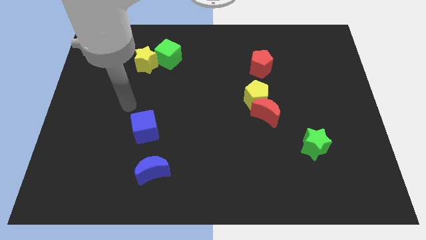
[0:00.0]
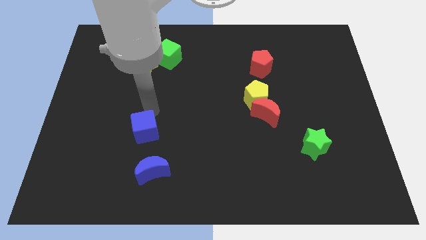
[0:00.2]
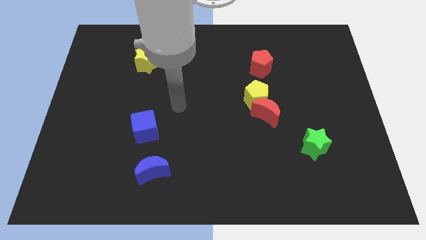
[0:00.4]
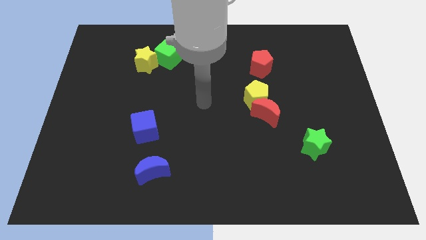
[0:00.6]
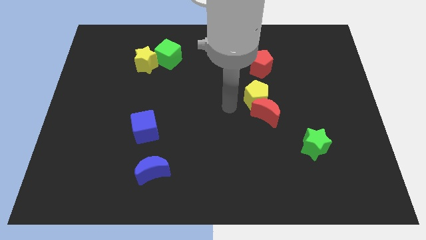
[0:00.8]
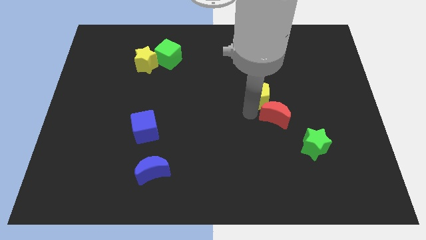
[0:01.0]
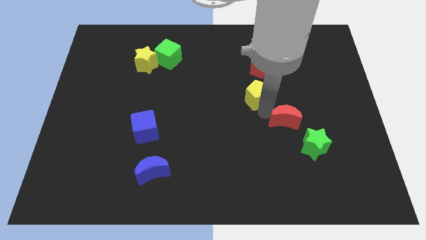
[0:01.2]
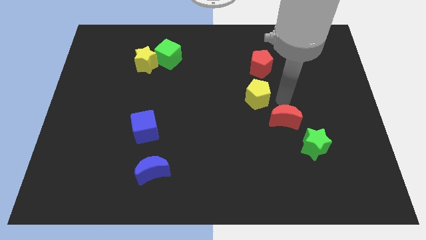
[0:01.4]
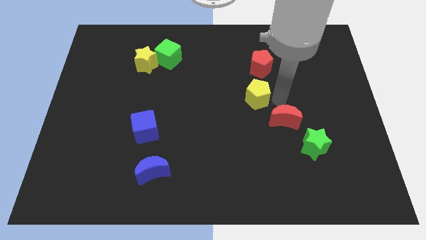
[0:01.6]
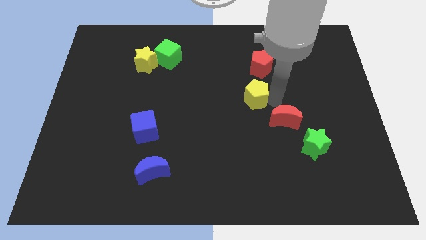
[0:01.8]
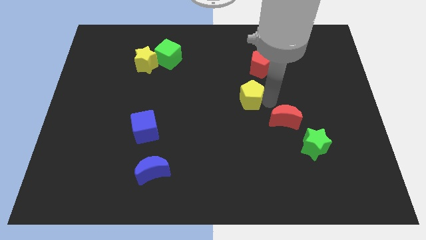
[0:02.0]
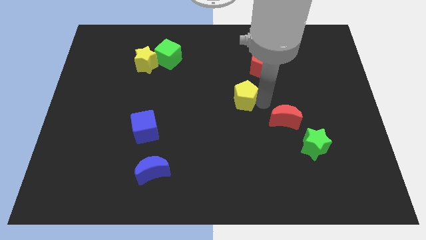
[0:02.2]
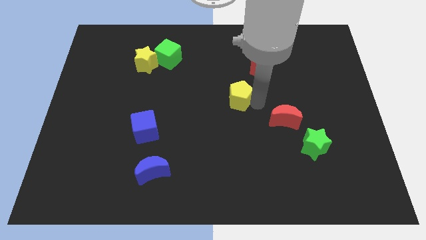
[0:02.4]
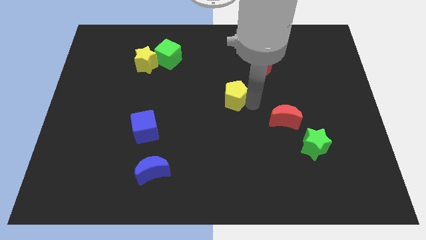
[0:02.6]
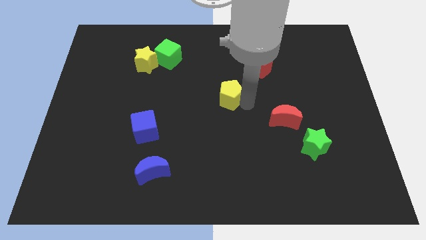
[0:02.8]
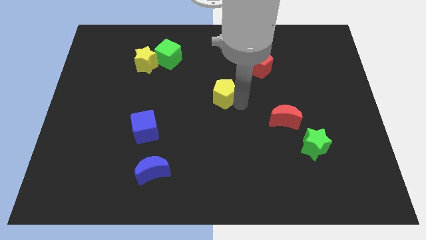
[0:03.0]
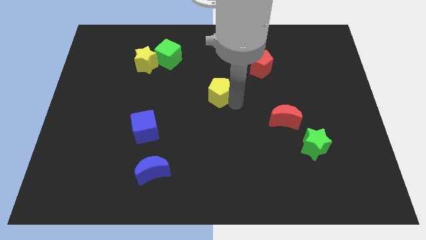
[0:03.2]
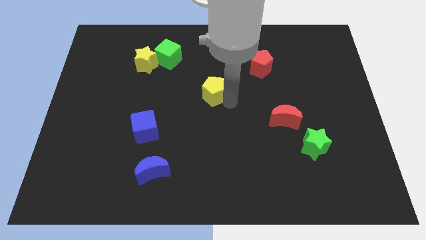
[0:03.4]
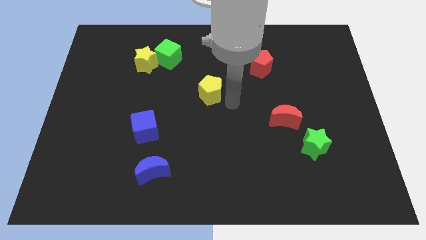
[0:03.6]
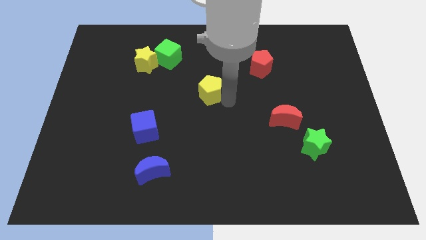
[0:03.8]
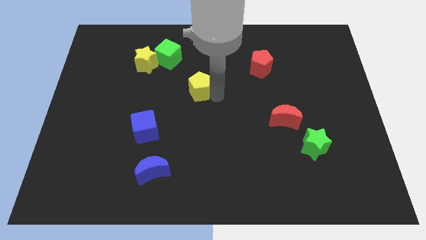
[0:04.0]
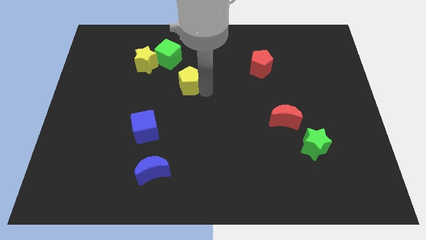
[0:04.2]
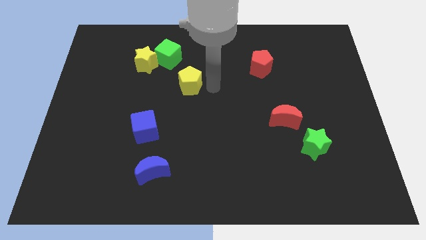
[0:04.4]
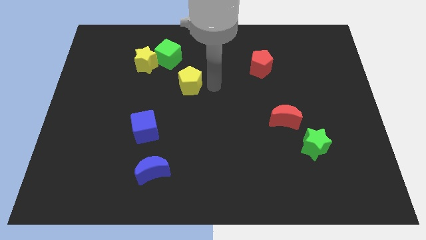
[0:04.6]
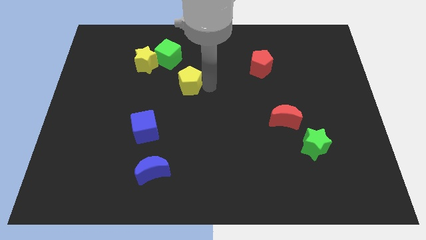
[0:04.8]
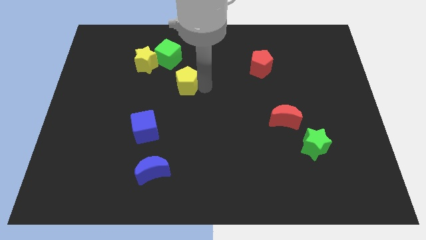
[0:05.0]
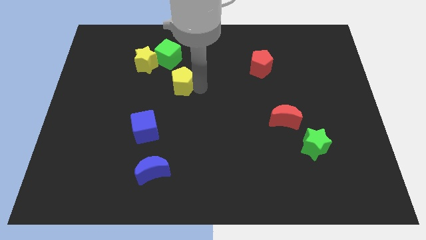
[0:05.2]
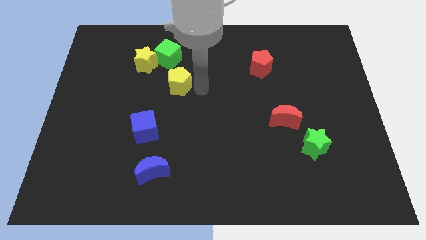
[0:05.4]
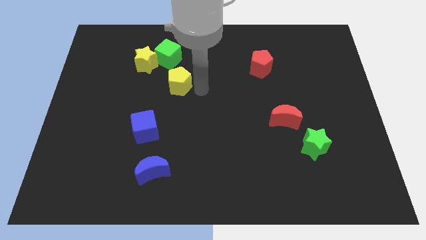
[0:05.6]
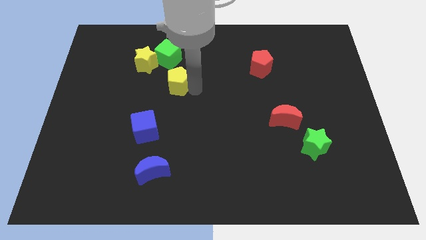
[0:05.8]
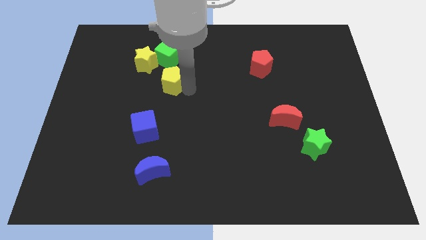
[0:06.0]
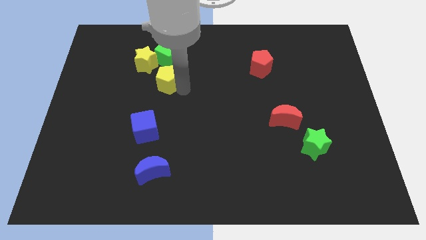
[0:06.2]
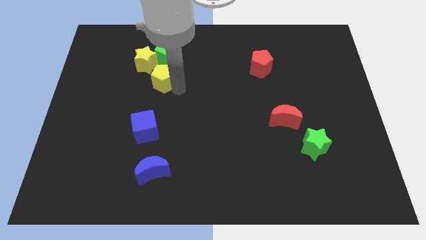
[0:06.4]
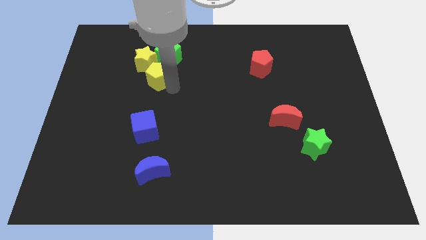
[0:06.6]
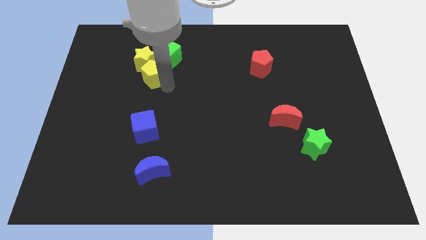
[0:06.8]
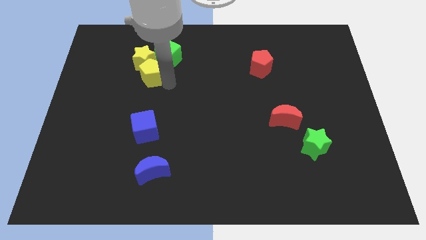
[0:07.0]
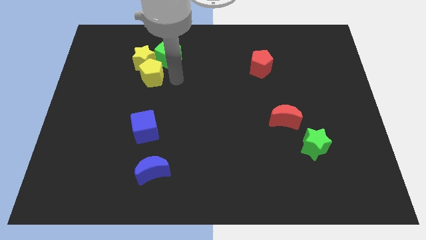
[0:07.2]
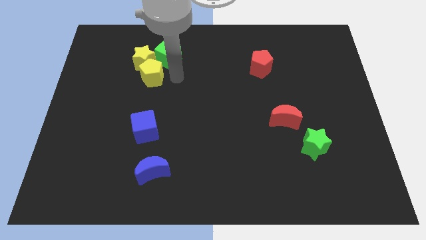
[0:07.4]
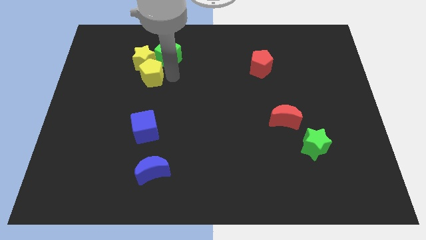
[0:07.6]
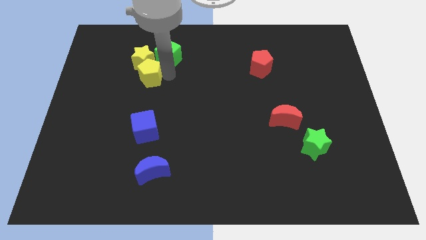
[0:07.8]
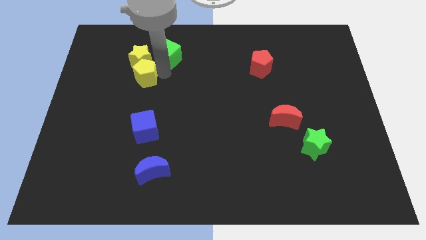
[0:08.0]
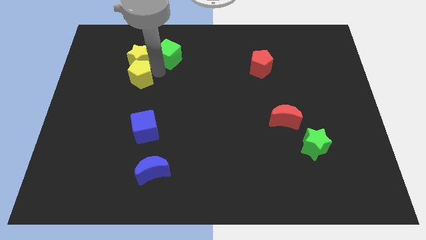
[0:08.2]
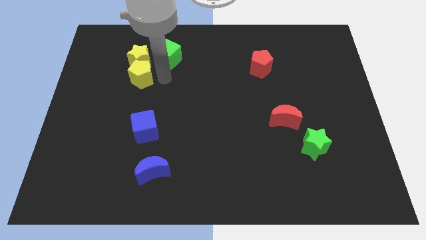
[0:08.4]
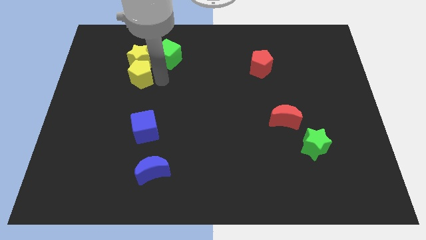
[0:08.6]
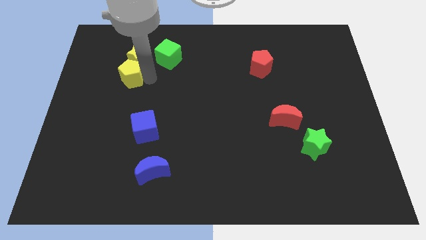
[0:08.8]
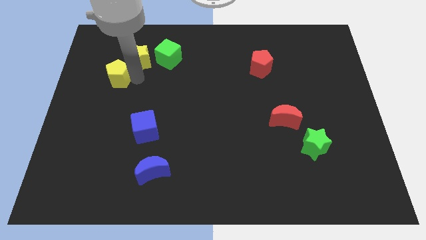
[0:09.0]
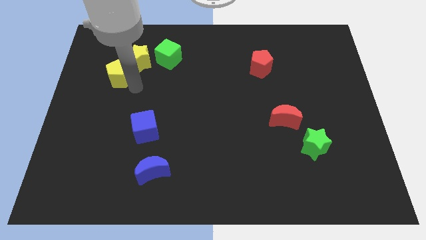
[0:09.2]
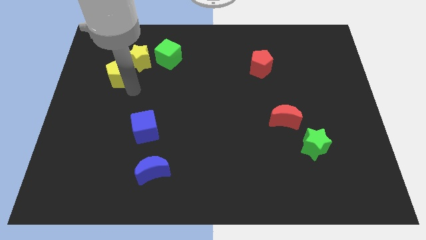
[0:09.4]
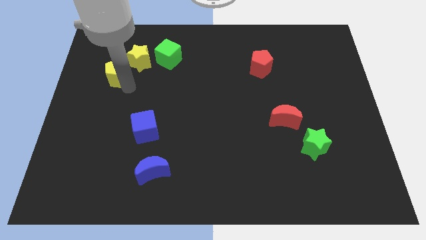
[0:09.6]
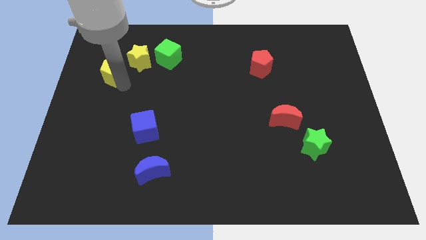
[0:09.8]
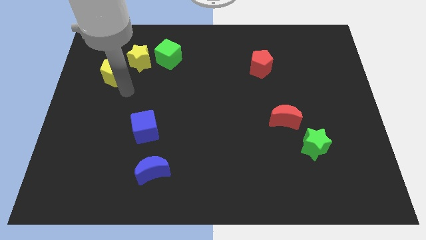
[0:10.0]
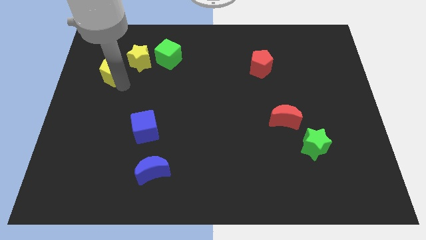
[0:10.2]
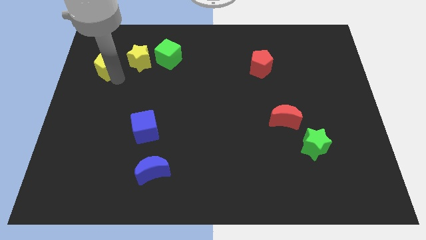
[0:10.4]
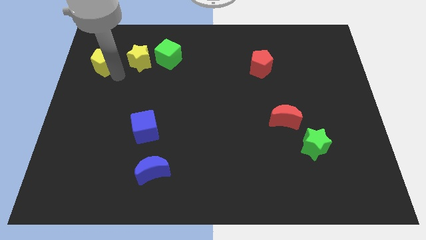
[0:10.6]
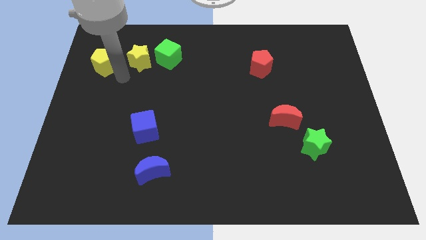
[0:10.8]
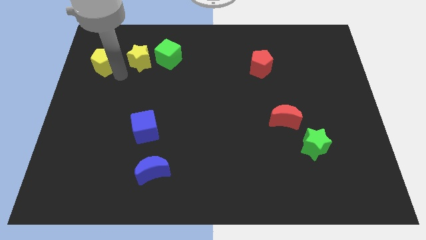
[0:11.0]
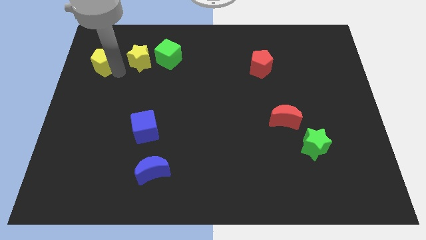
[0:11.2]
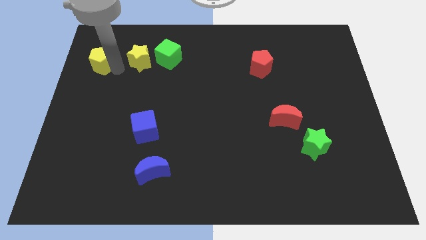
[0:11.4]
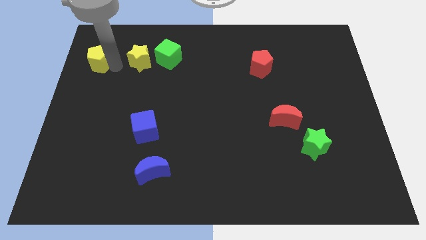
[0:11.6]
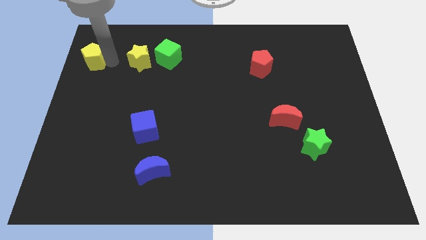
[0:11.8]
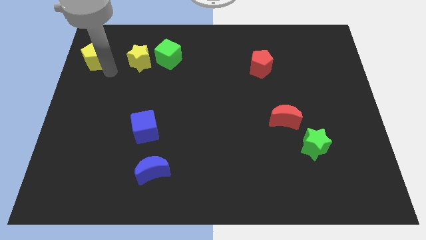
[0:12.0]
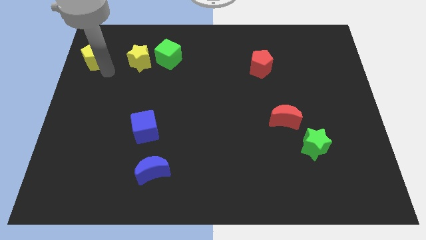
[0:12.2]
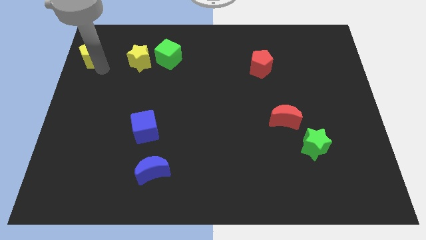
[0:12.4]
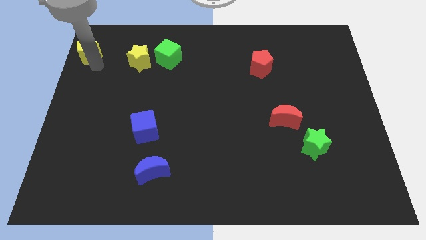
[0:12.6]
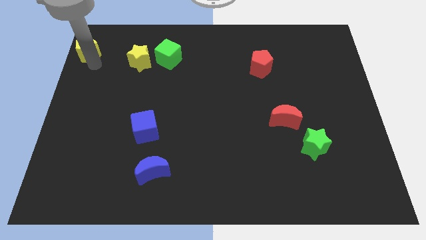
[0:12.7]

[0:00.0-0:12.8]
slide the yellow pentagon to the top left
